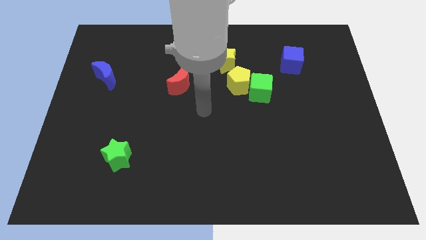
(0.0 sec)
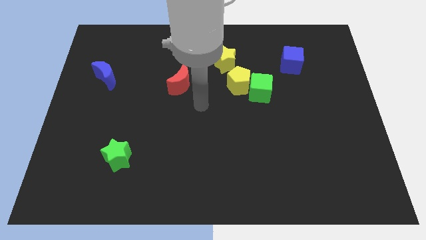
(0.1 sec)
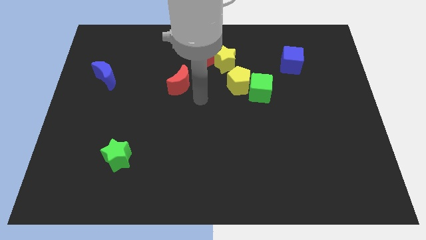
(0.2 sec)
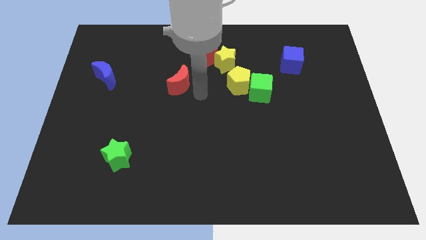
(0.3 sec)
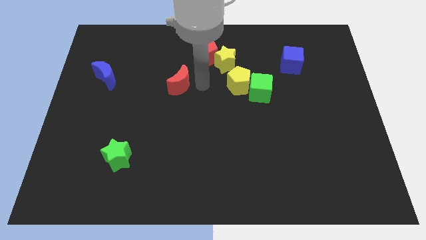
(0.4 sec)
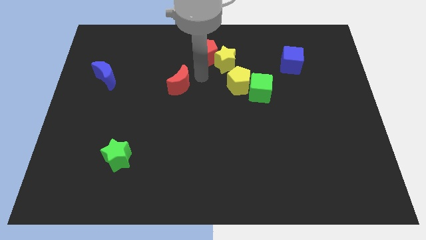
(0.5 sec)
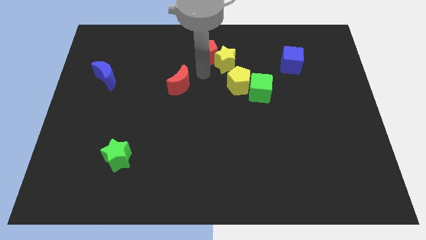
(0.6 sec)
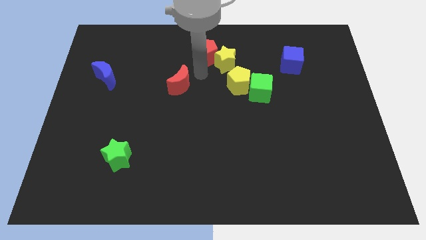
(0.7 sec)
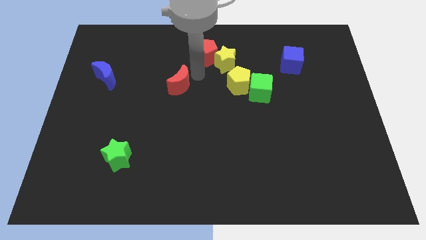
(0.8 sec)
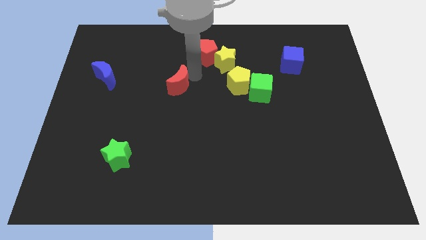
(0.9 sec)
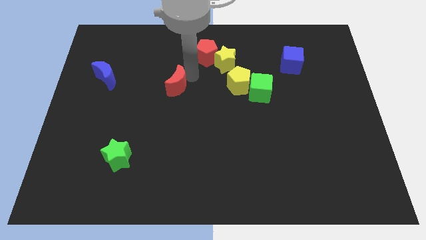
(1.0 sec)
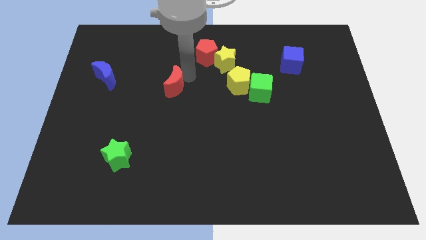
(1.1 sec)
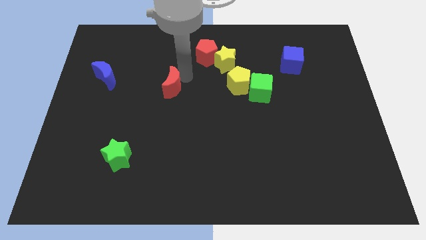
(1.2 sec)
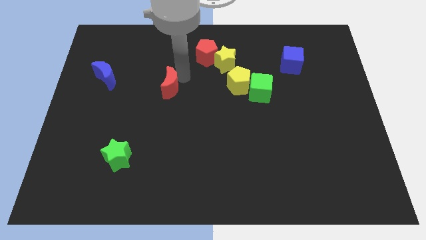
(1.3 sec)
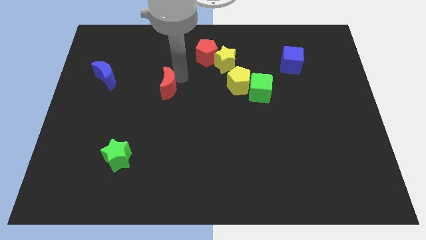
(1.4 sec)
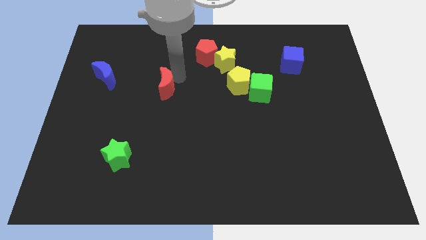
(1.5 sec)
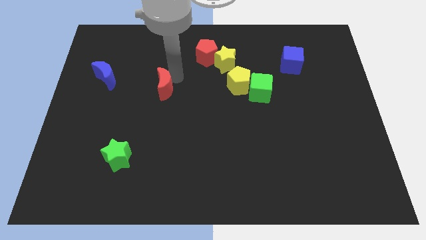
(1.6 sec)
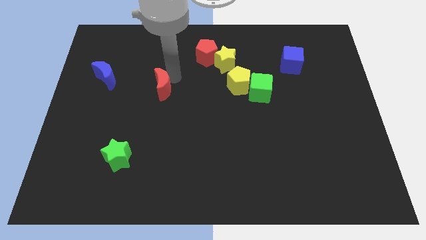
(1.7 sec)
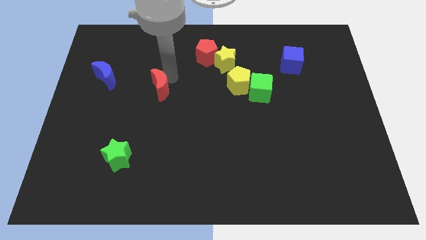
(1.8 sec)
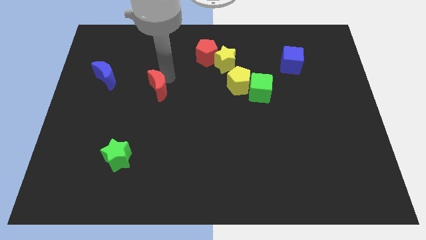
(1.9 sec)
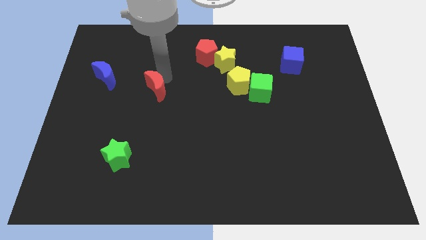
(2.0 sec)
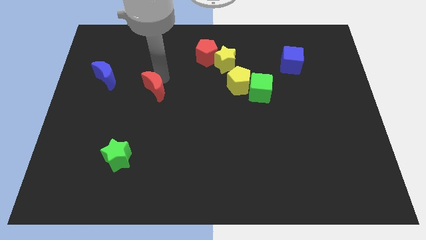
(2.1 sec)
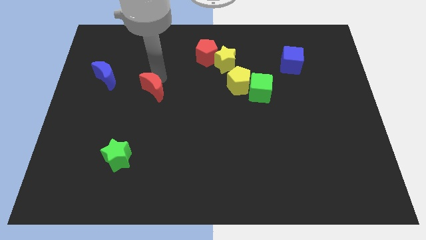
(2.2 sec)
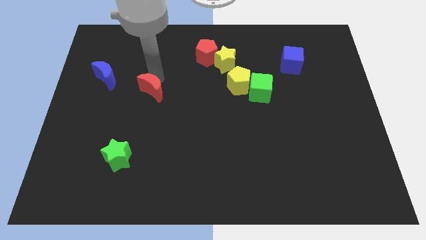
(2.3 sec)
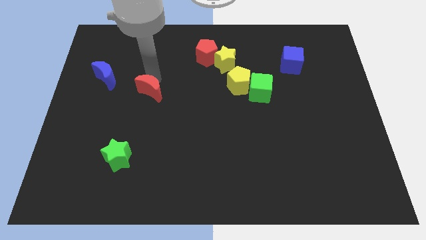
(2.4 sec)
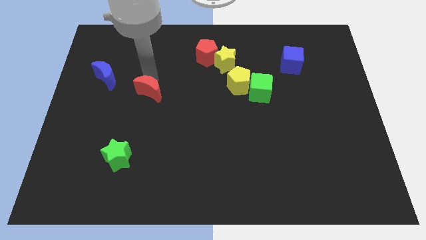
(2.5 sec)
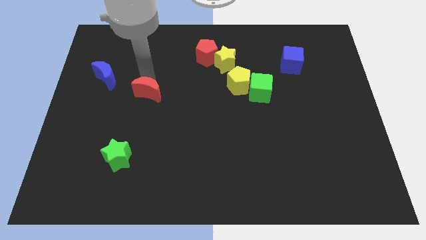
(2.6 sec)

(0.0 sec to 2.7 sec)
push the red moon slightly diagonally down and to the left

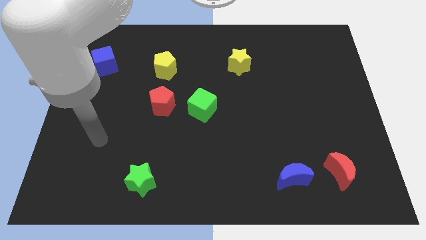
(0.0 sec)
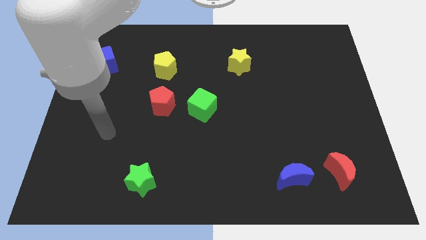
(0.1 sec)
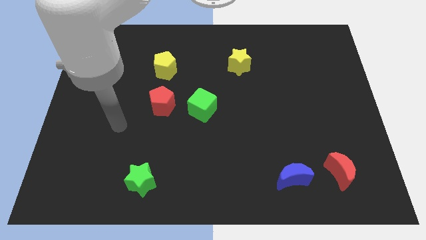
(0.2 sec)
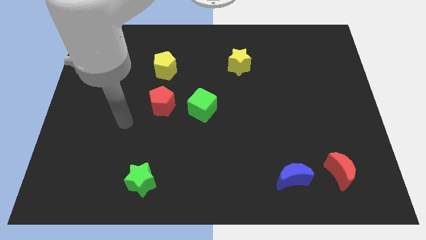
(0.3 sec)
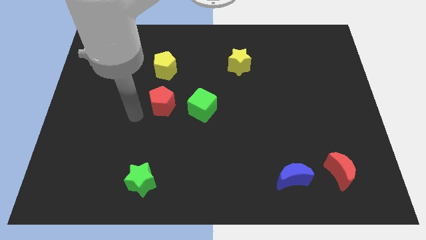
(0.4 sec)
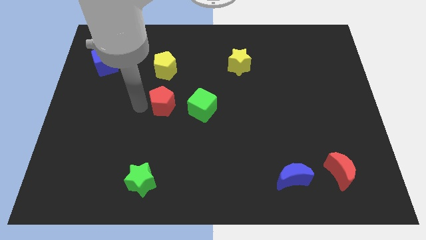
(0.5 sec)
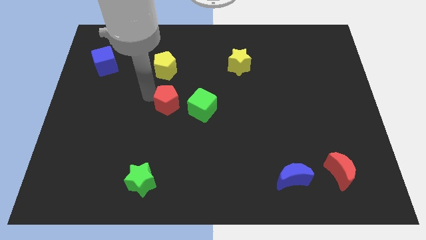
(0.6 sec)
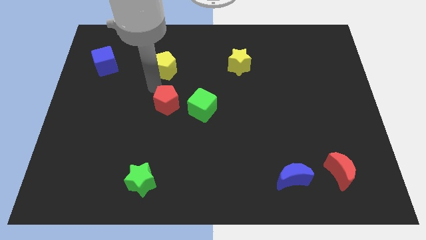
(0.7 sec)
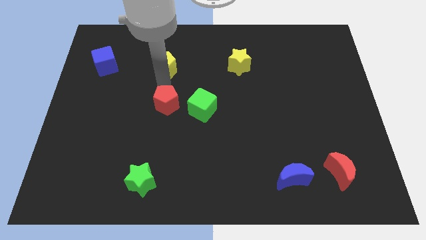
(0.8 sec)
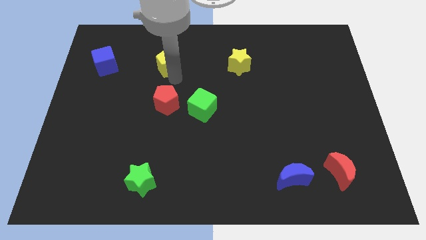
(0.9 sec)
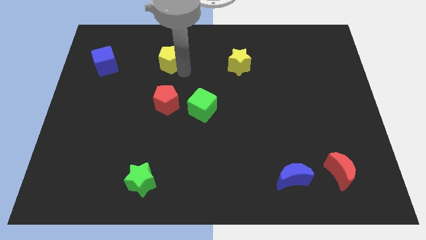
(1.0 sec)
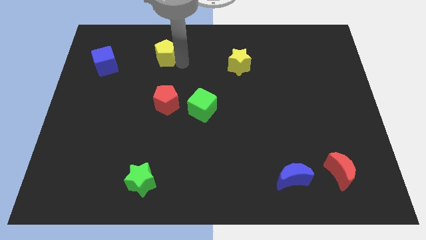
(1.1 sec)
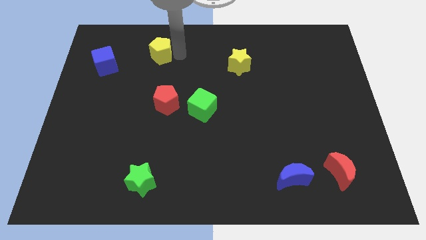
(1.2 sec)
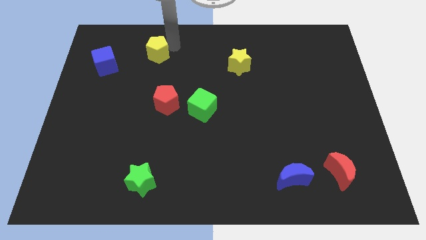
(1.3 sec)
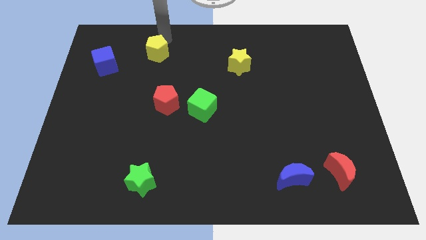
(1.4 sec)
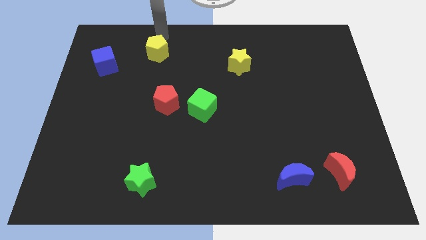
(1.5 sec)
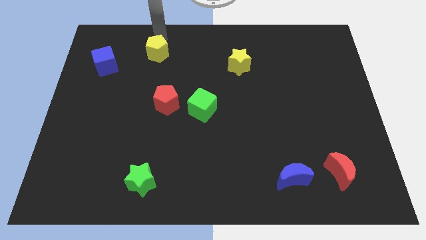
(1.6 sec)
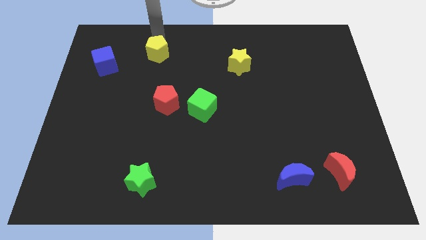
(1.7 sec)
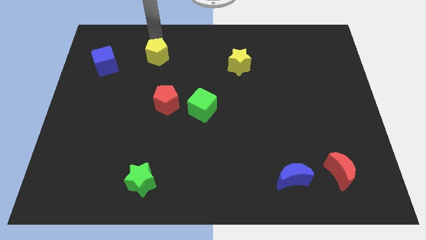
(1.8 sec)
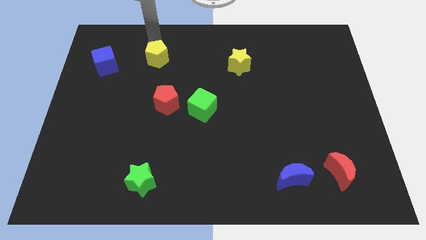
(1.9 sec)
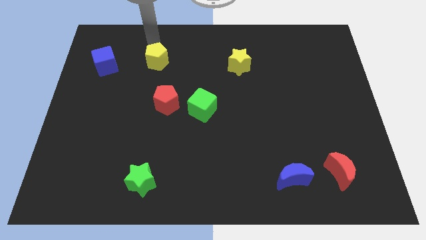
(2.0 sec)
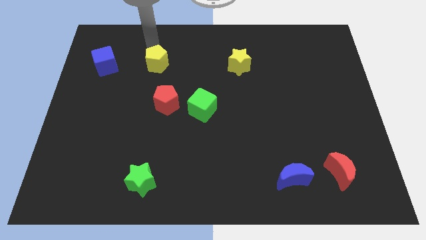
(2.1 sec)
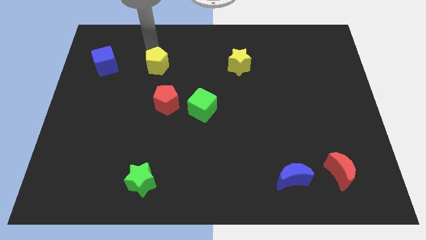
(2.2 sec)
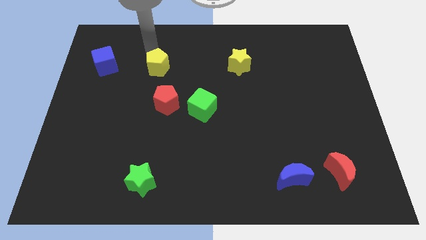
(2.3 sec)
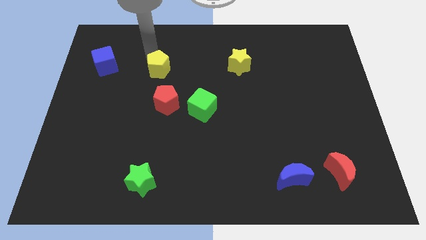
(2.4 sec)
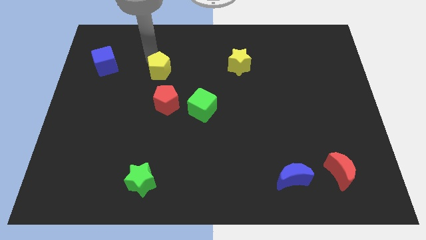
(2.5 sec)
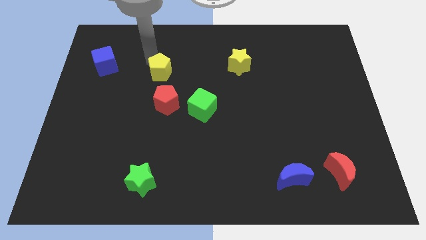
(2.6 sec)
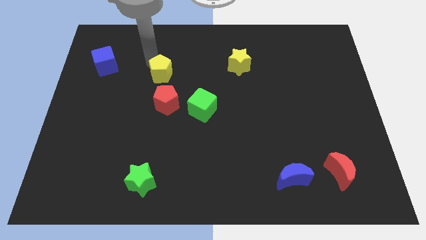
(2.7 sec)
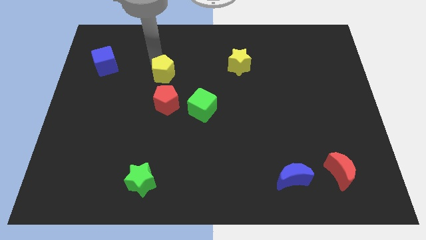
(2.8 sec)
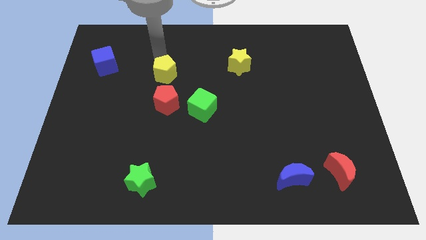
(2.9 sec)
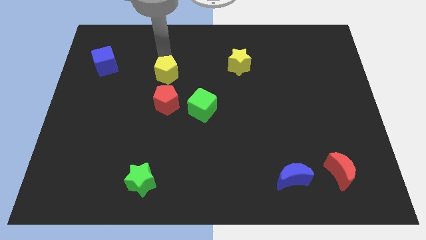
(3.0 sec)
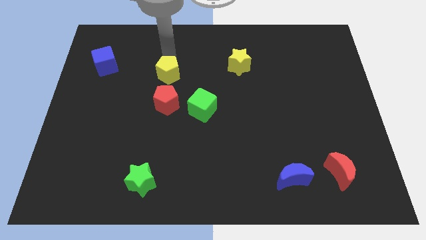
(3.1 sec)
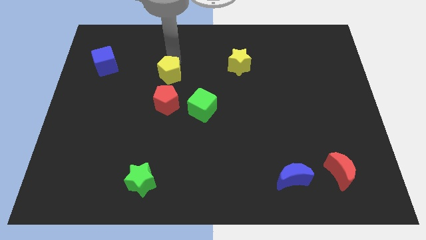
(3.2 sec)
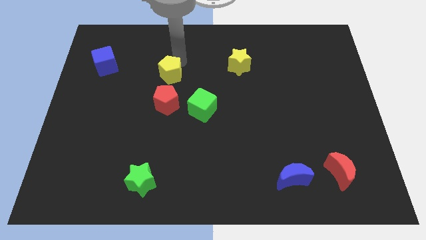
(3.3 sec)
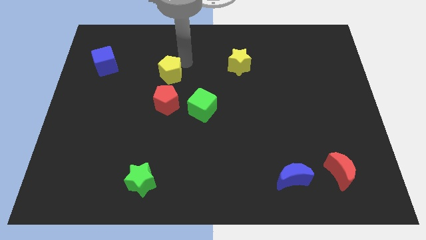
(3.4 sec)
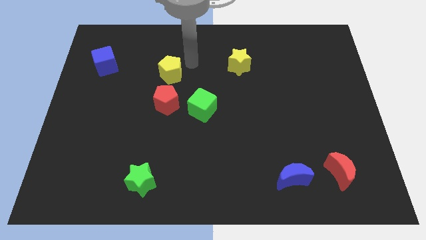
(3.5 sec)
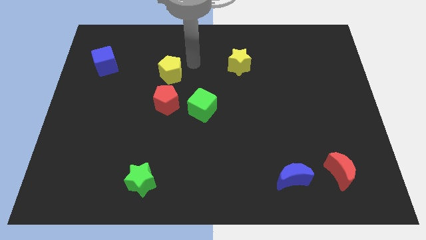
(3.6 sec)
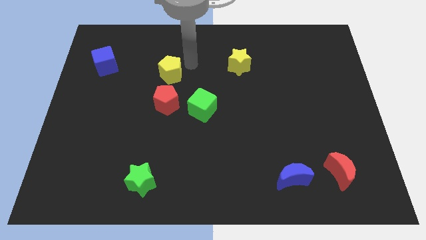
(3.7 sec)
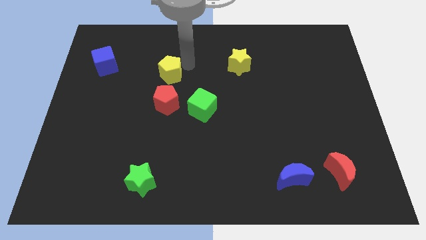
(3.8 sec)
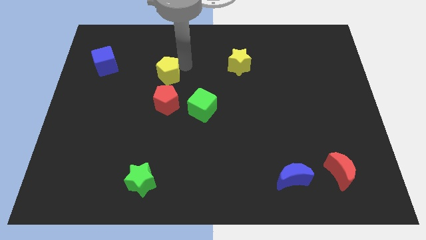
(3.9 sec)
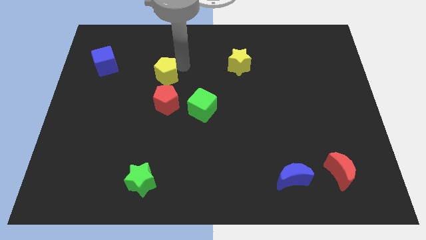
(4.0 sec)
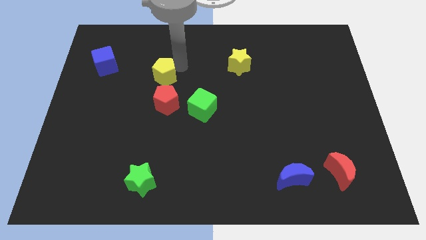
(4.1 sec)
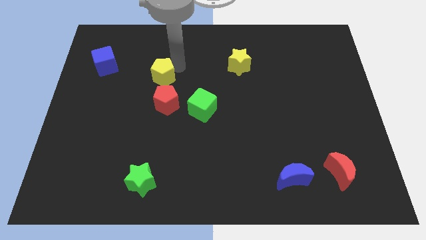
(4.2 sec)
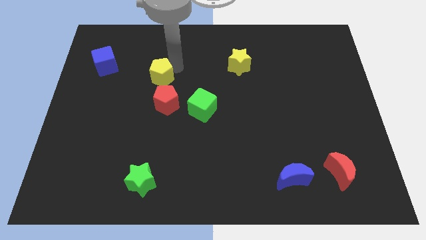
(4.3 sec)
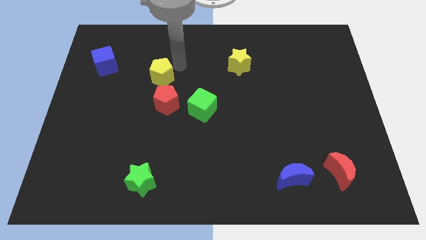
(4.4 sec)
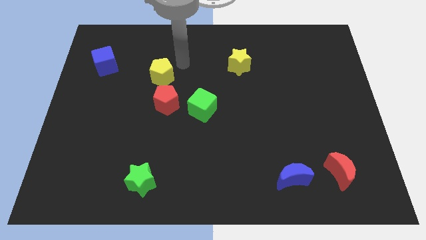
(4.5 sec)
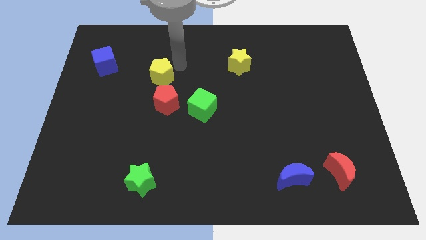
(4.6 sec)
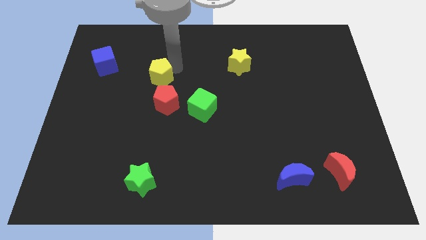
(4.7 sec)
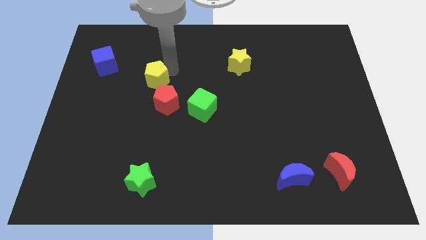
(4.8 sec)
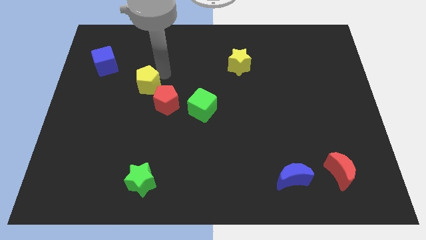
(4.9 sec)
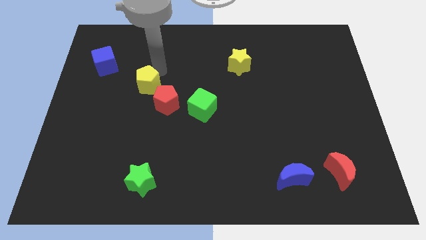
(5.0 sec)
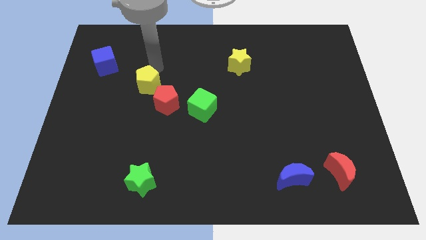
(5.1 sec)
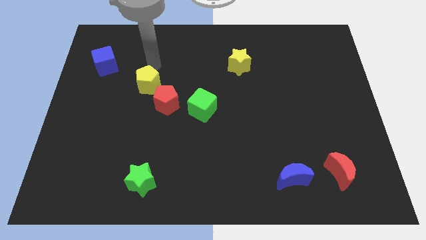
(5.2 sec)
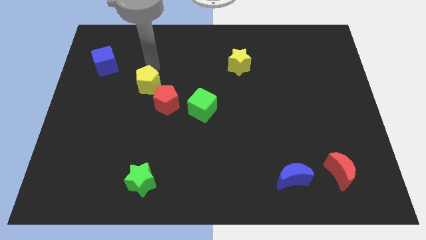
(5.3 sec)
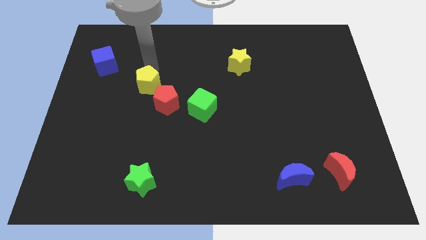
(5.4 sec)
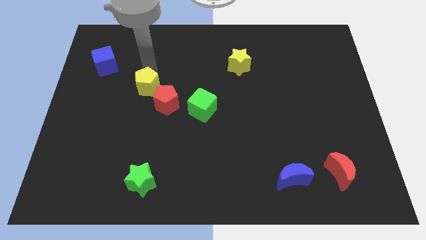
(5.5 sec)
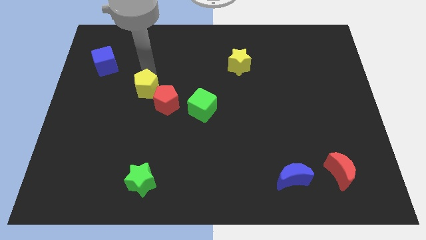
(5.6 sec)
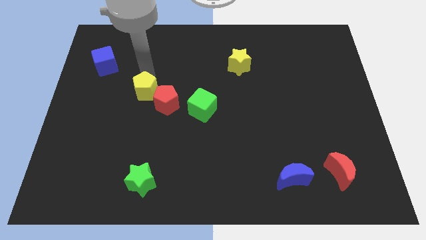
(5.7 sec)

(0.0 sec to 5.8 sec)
move the yellow pentagon down a little bit
